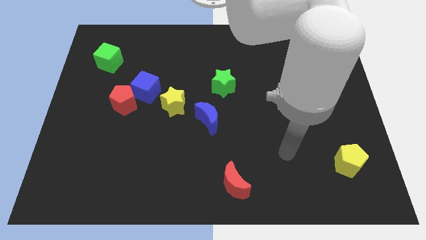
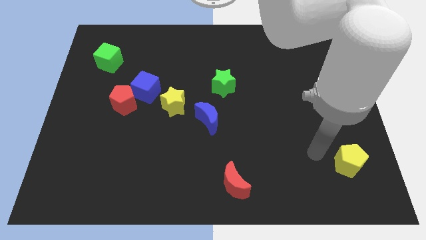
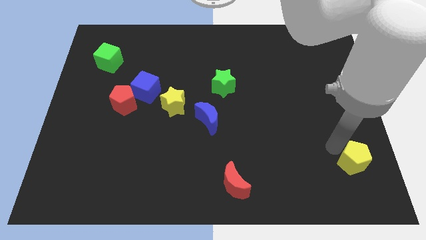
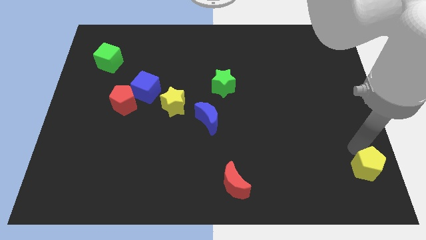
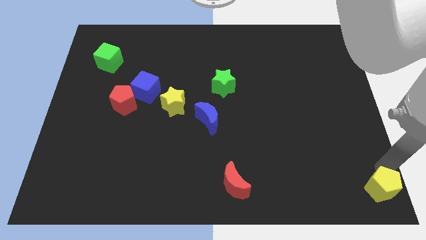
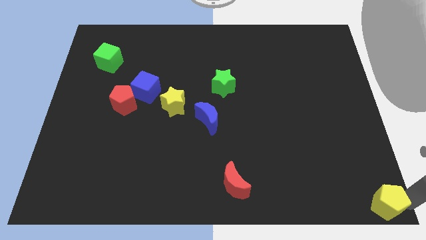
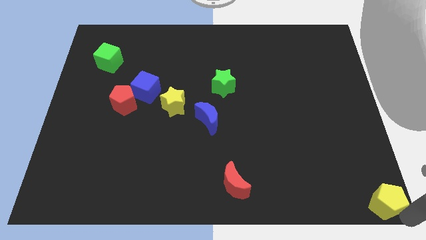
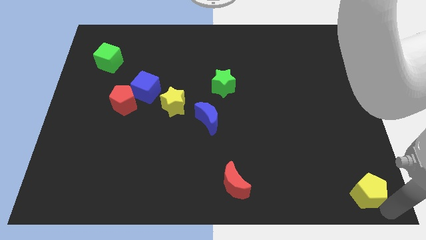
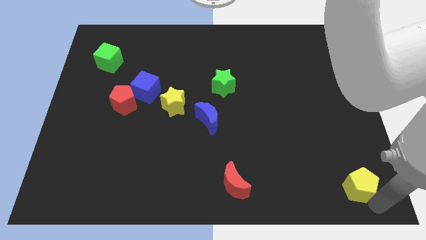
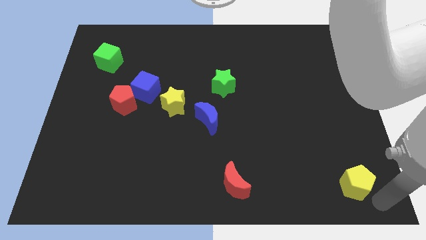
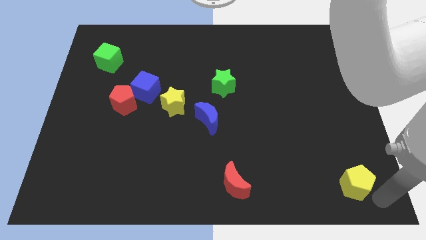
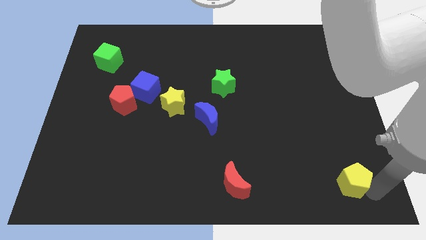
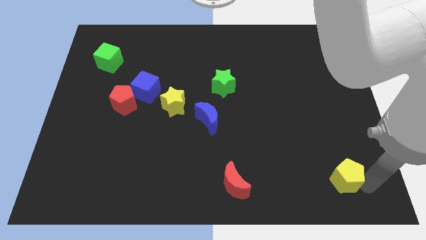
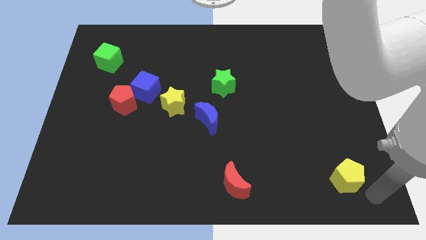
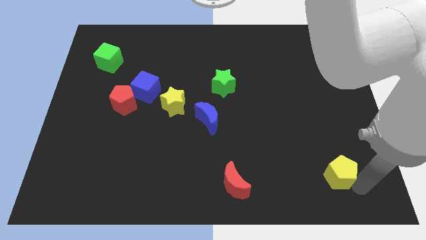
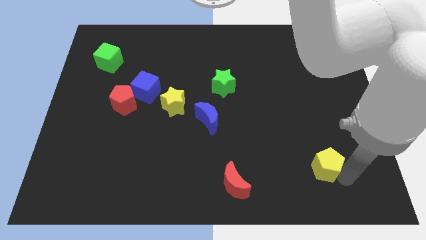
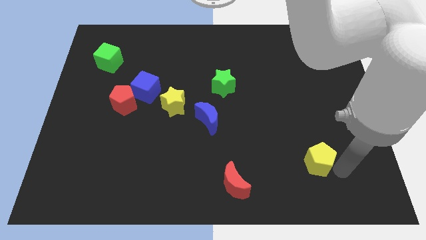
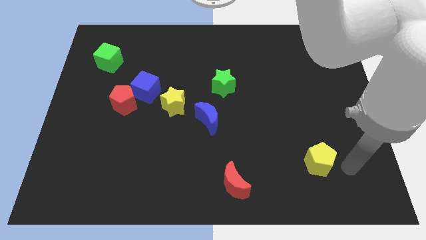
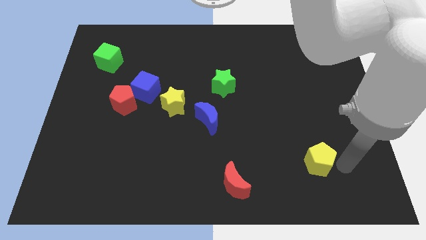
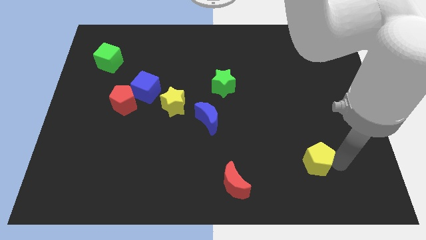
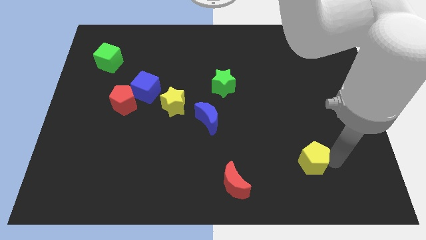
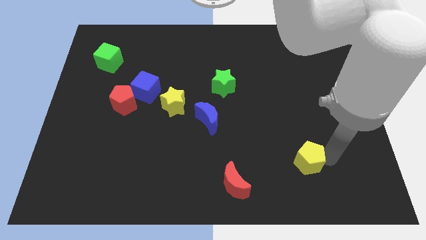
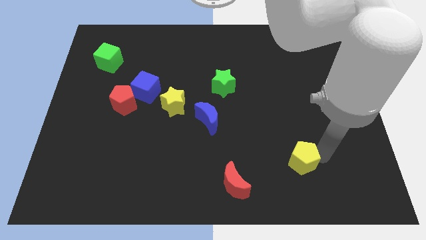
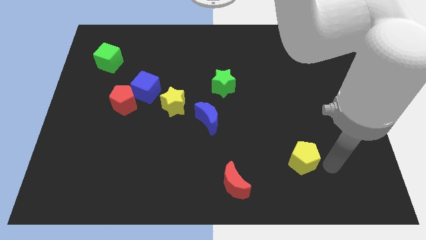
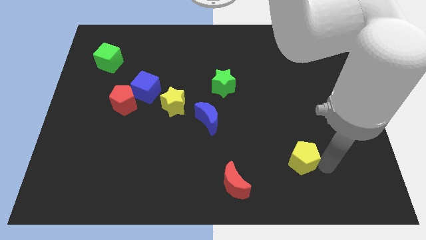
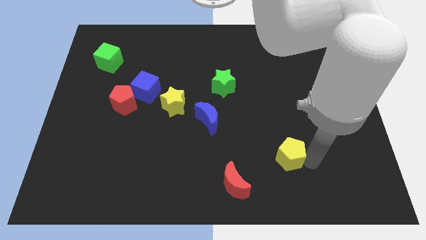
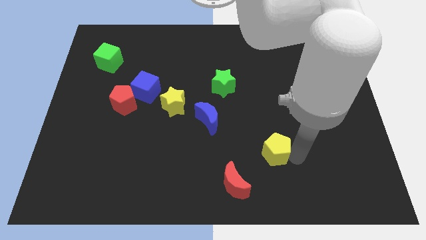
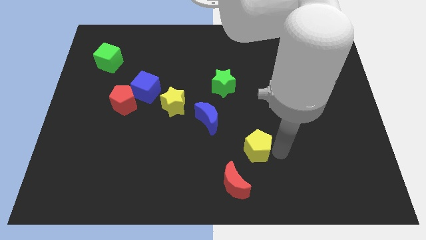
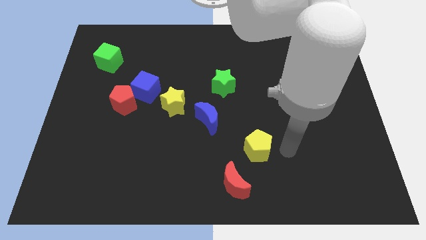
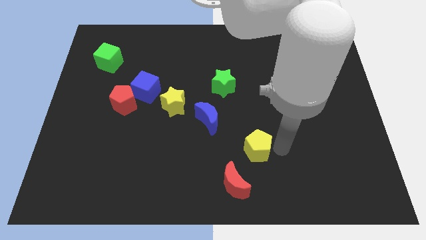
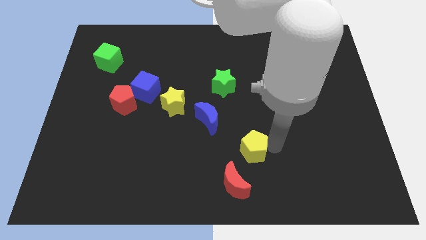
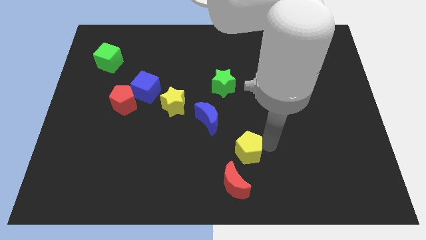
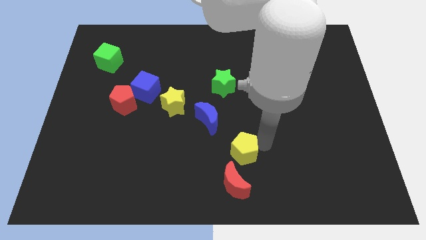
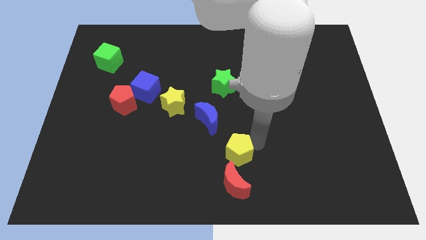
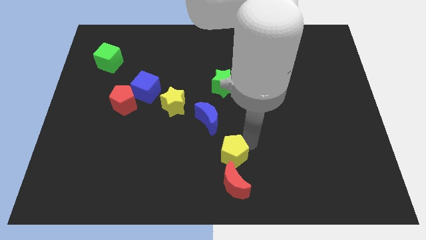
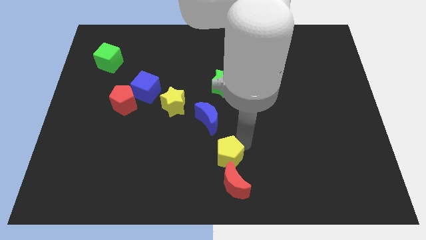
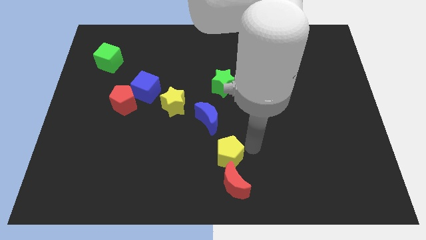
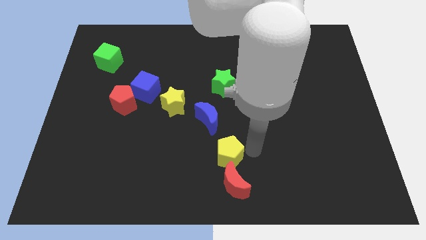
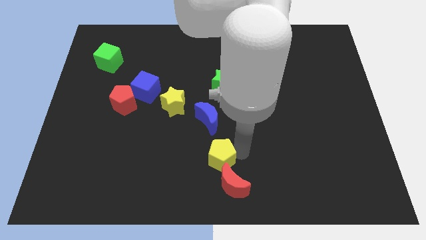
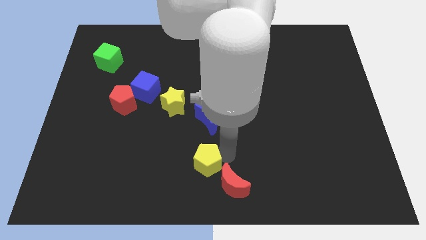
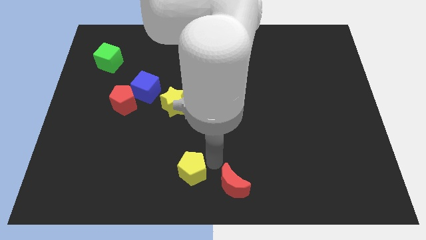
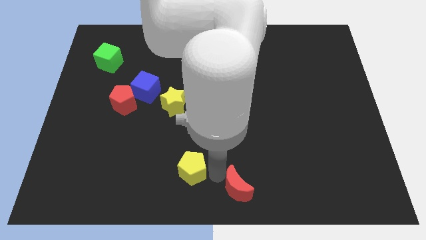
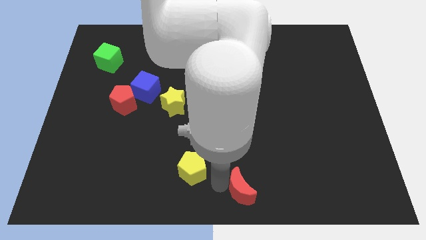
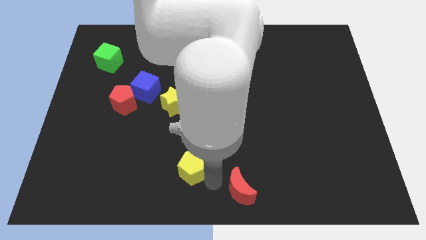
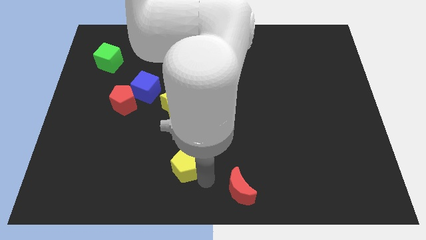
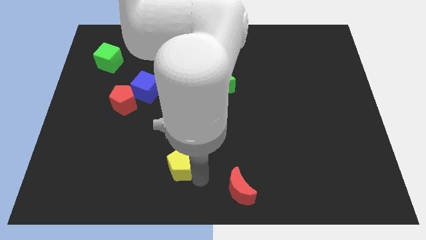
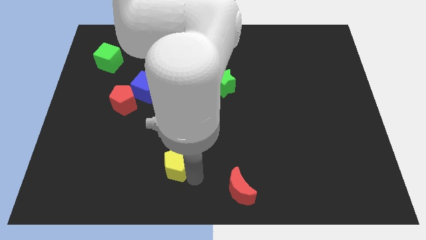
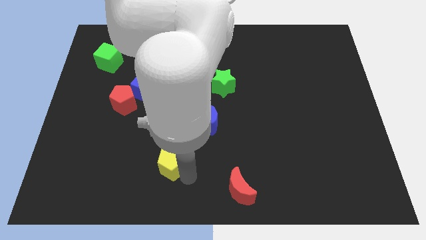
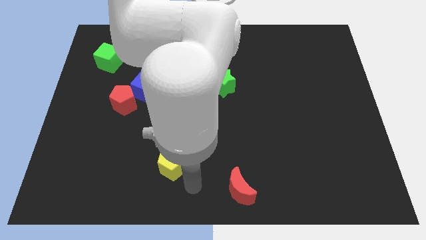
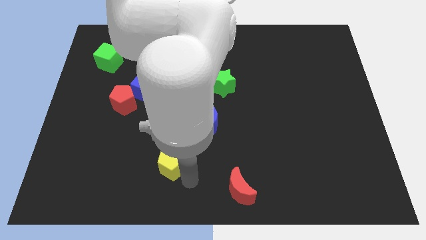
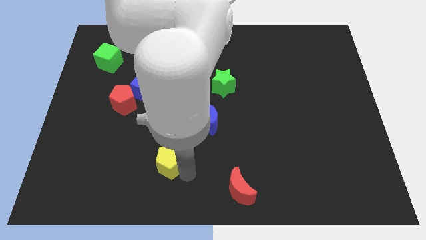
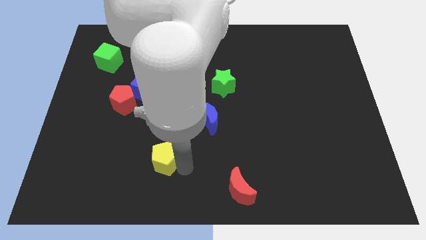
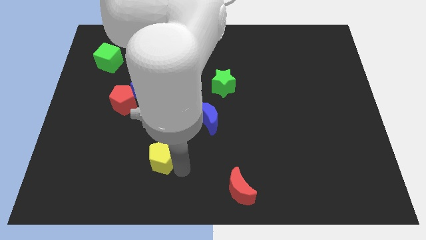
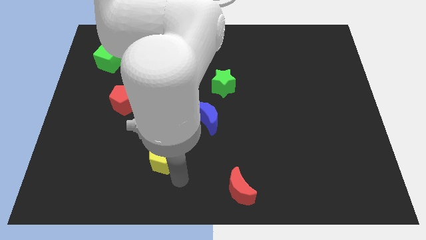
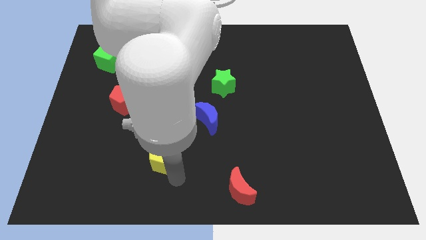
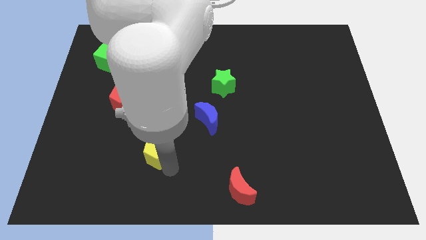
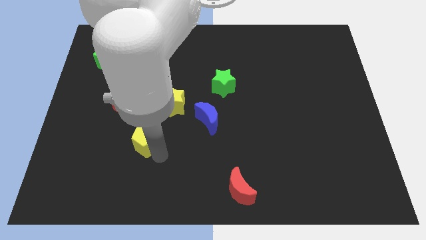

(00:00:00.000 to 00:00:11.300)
move the yellow pentagon below the blue cube

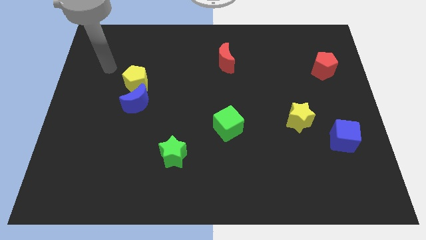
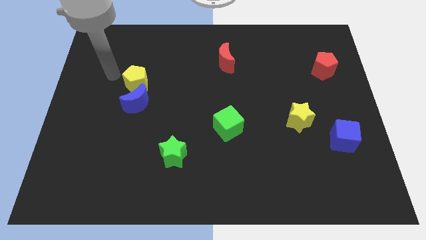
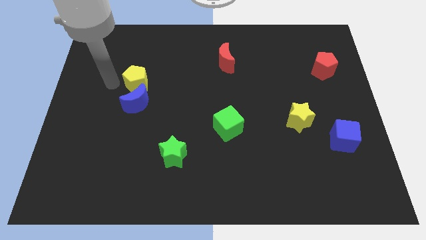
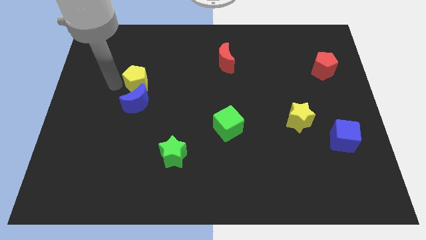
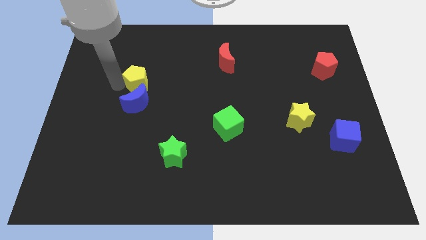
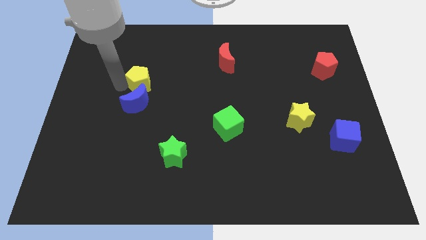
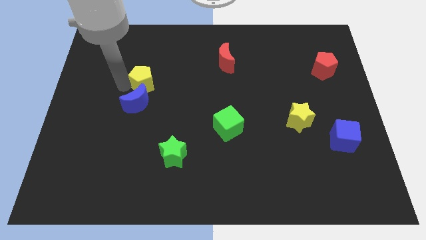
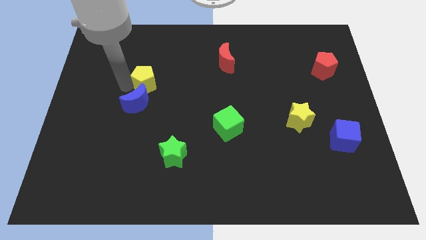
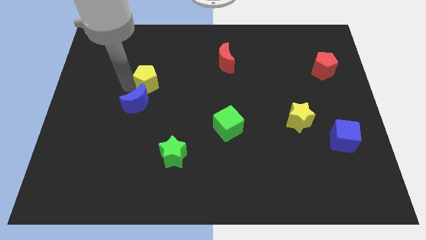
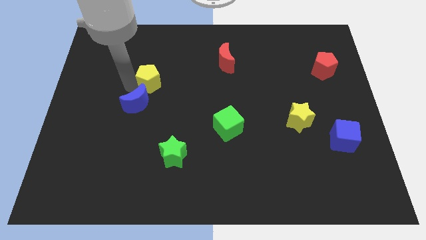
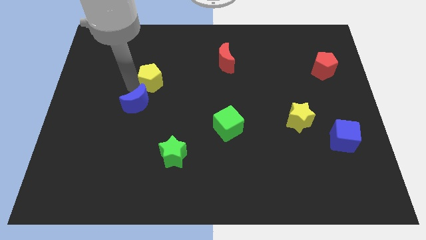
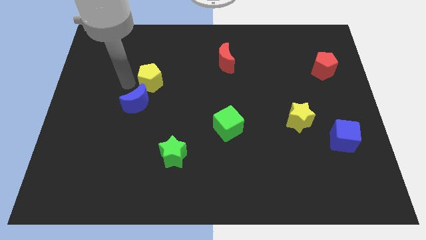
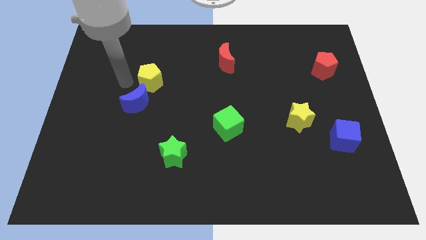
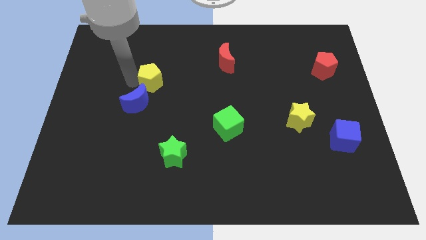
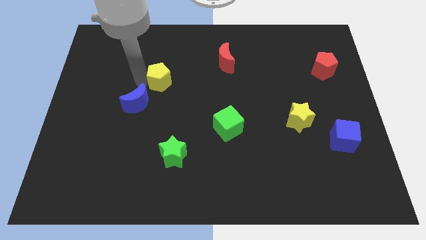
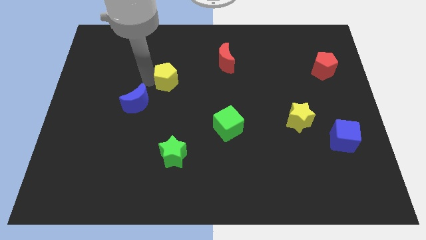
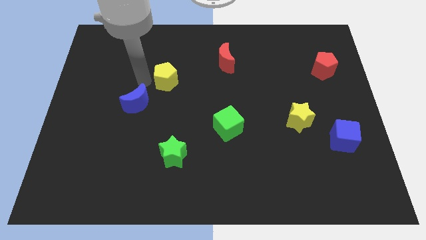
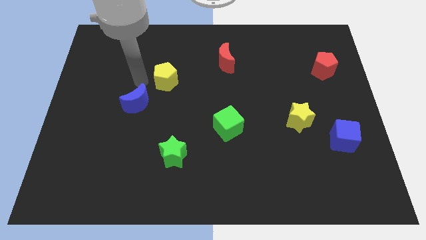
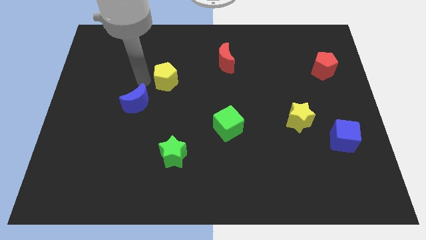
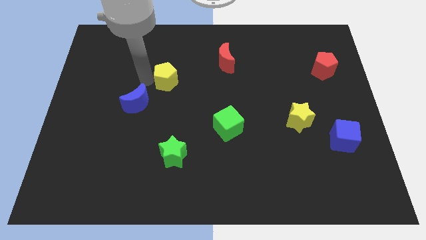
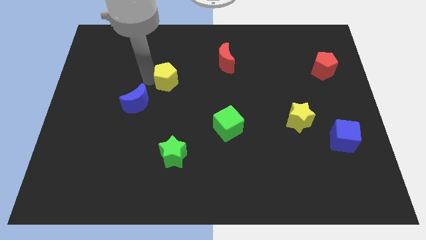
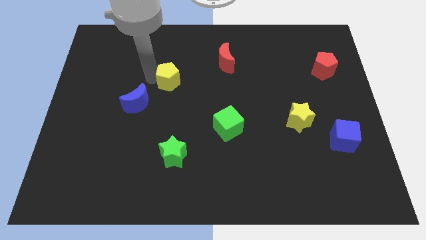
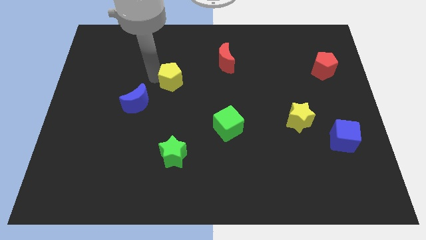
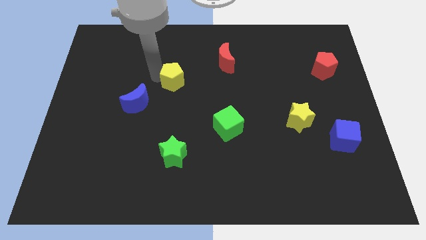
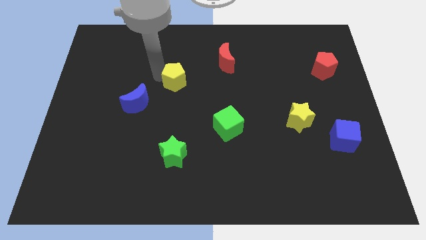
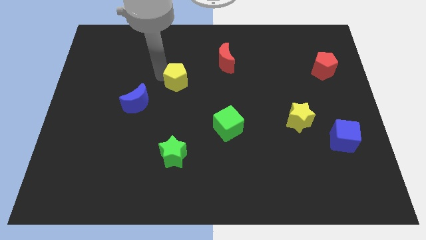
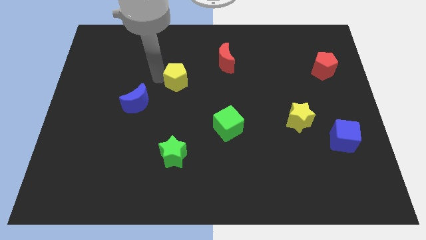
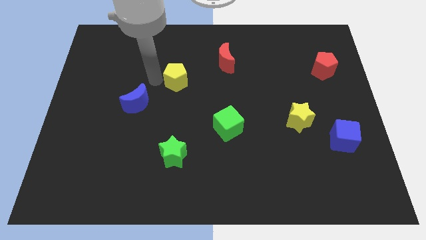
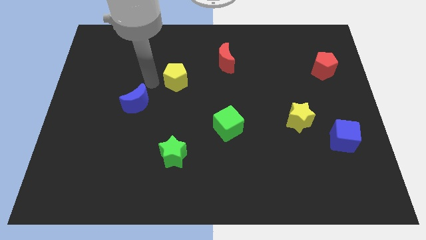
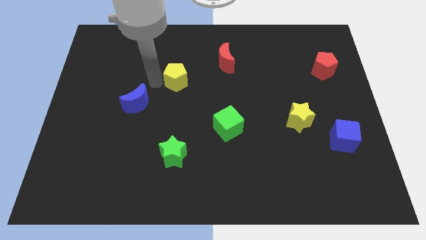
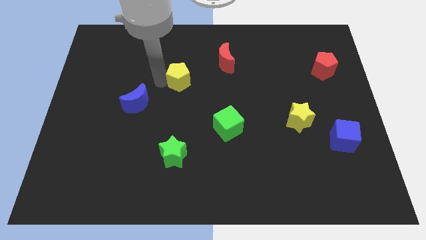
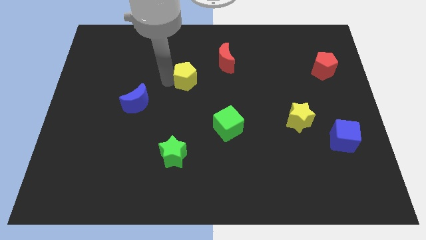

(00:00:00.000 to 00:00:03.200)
move the yellow pentagon to the bottom left of the red moon
